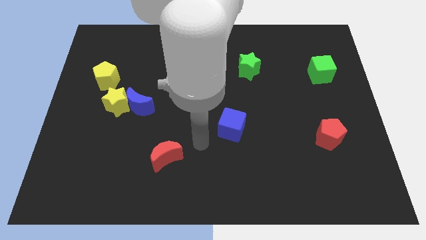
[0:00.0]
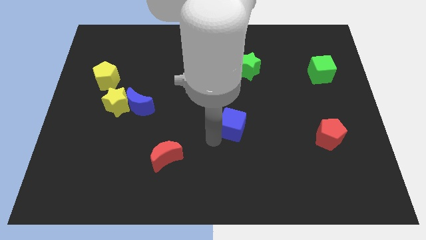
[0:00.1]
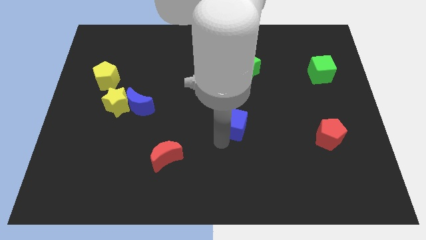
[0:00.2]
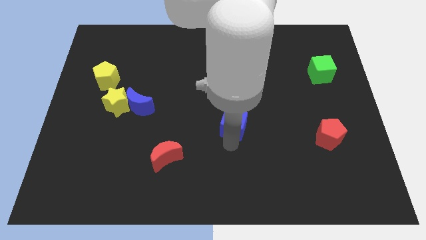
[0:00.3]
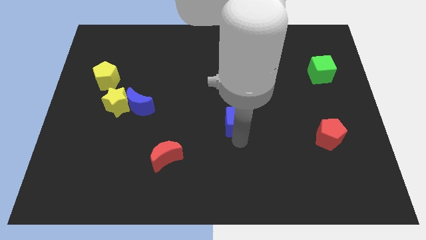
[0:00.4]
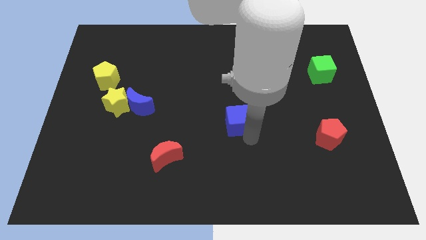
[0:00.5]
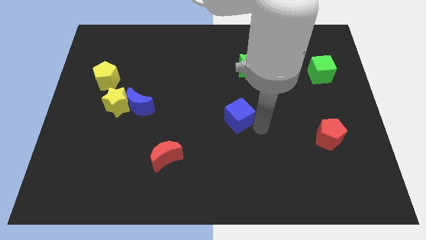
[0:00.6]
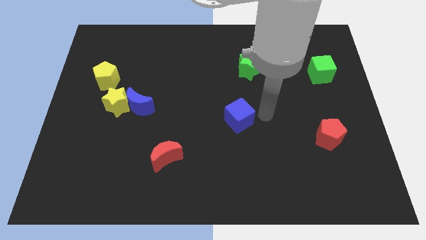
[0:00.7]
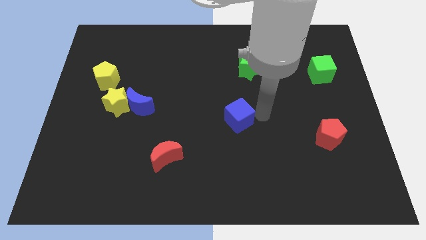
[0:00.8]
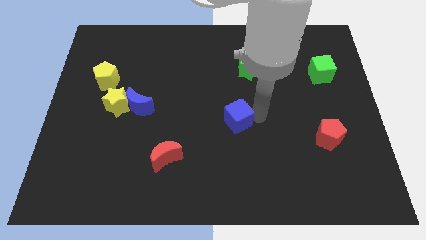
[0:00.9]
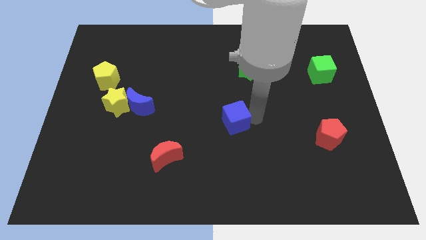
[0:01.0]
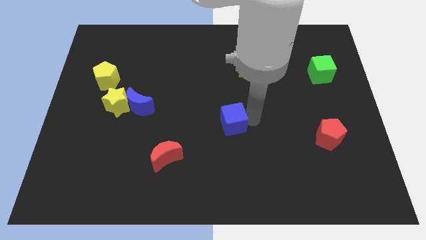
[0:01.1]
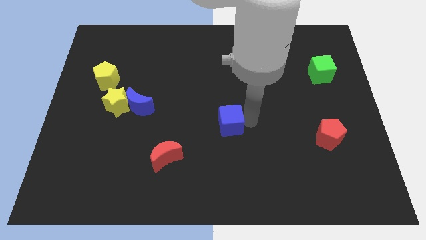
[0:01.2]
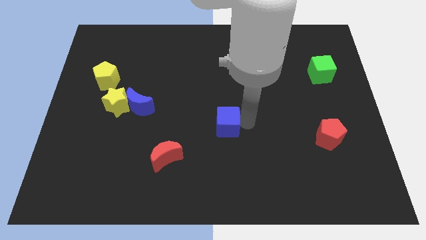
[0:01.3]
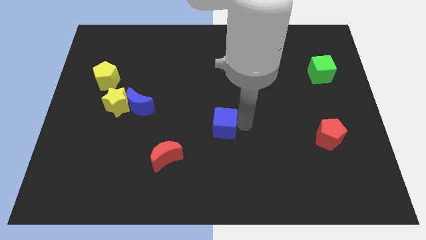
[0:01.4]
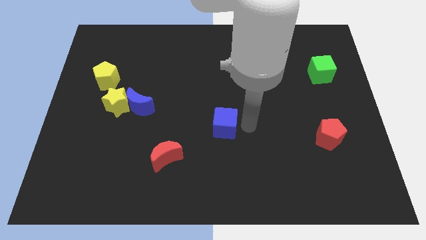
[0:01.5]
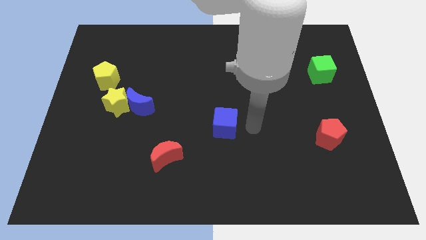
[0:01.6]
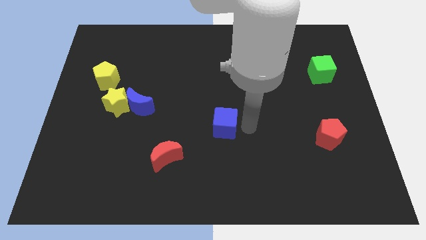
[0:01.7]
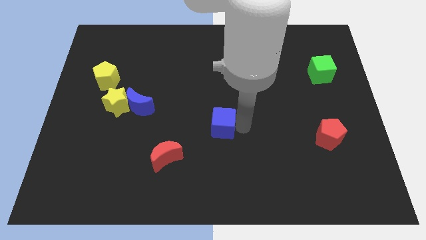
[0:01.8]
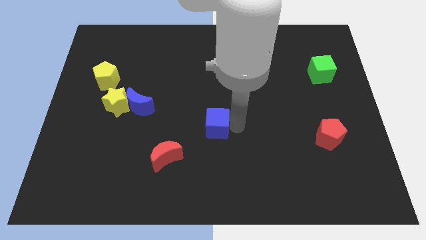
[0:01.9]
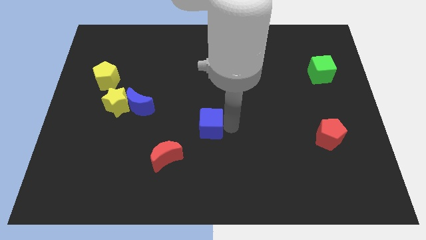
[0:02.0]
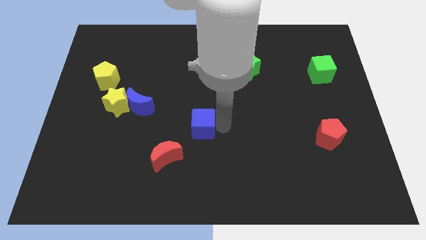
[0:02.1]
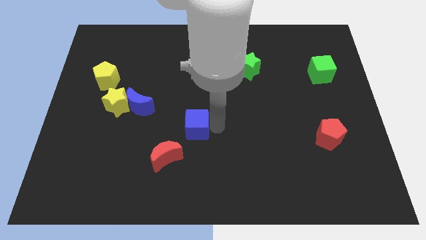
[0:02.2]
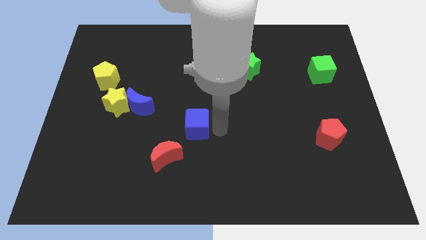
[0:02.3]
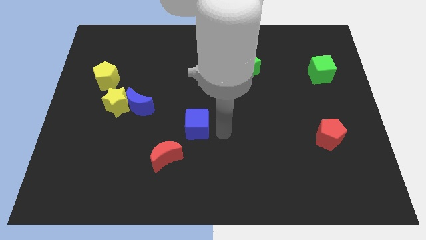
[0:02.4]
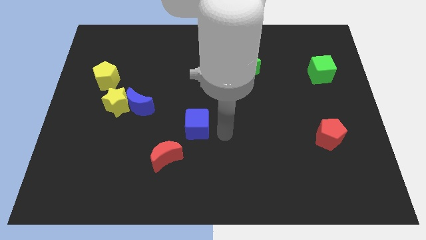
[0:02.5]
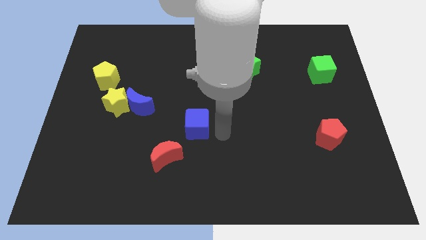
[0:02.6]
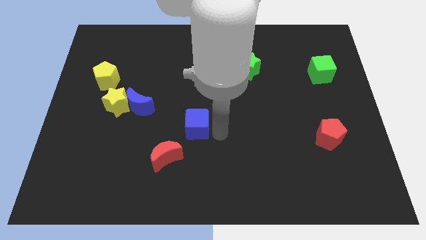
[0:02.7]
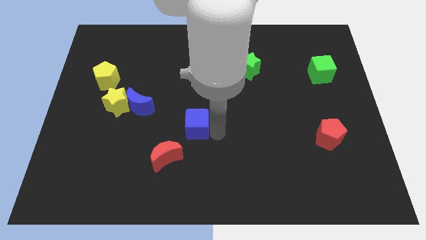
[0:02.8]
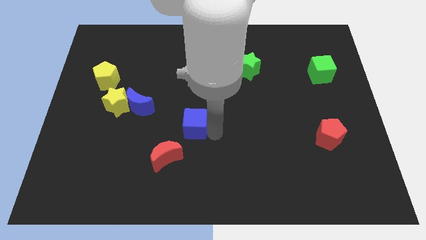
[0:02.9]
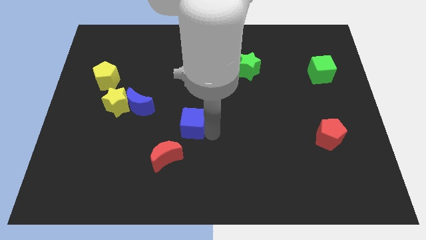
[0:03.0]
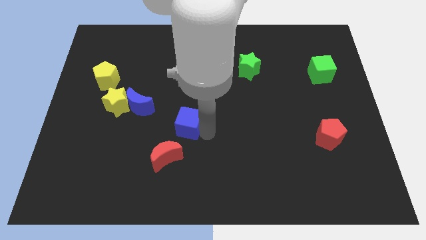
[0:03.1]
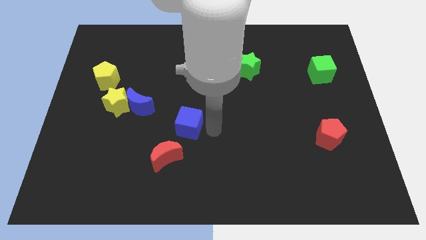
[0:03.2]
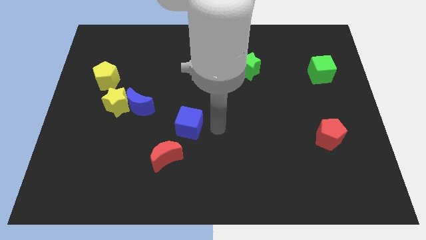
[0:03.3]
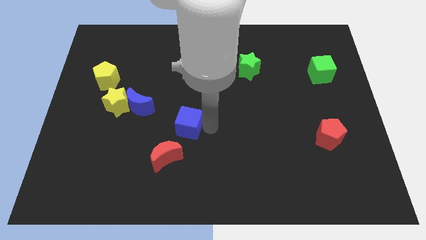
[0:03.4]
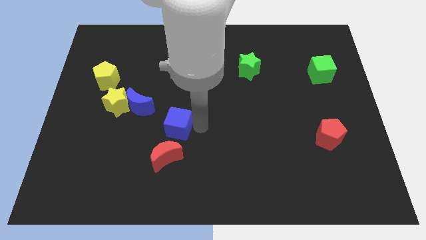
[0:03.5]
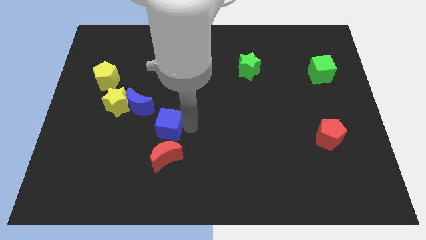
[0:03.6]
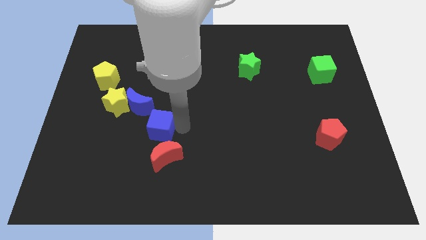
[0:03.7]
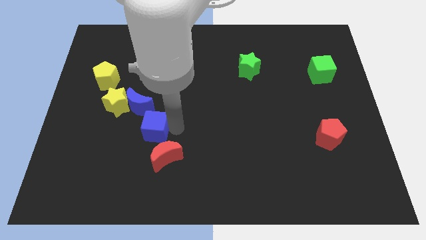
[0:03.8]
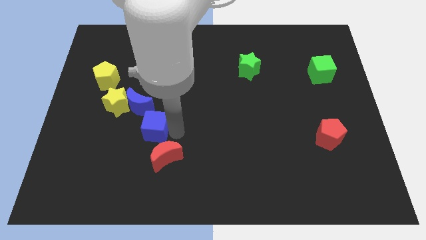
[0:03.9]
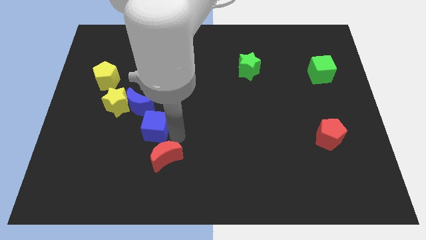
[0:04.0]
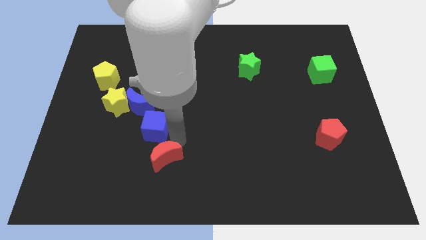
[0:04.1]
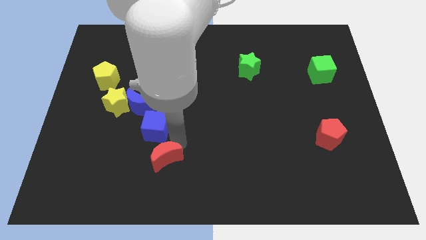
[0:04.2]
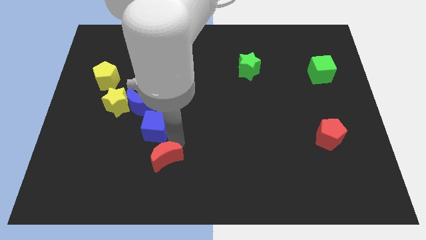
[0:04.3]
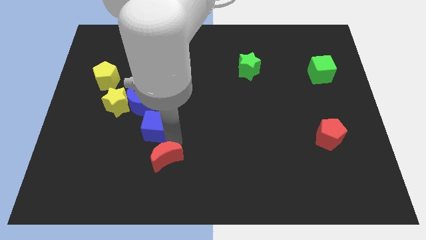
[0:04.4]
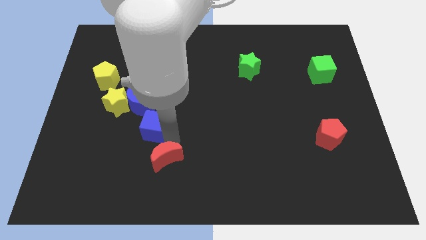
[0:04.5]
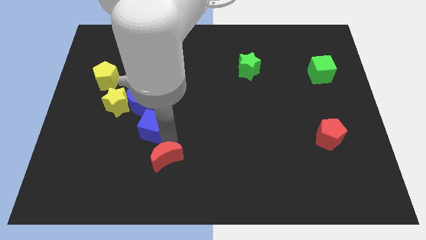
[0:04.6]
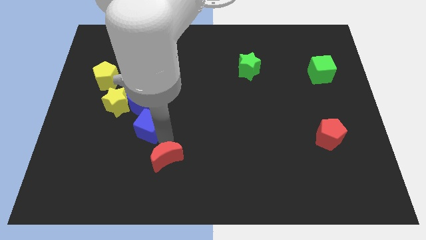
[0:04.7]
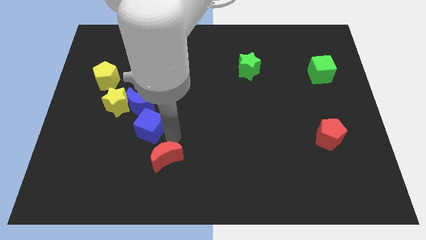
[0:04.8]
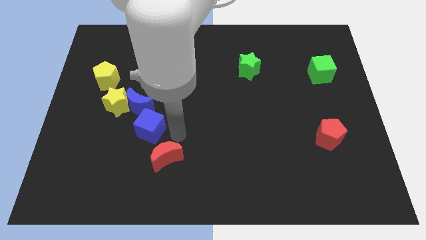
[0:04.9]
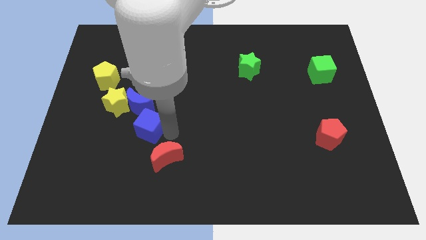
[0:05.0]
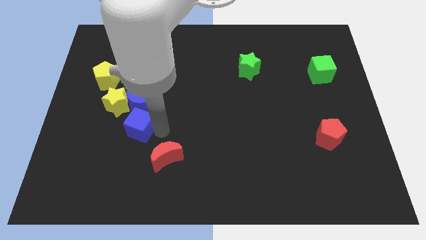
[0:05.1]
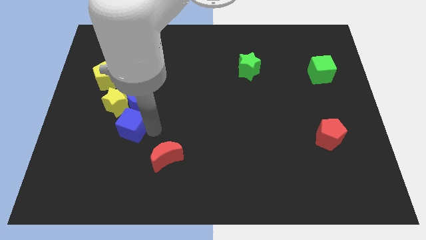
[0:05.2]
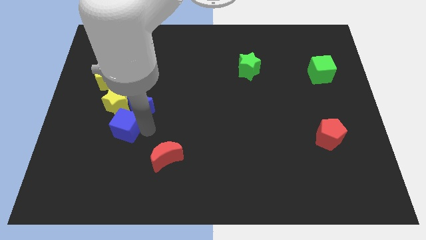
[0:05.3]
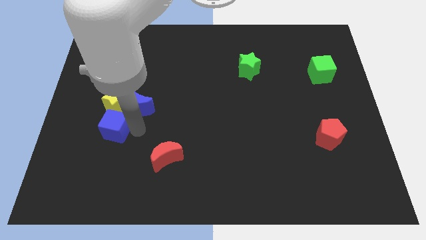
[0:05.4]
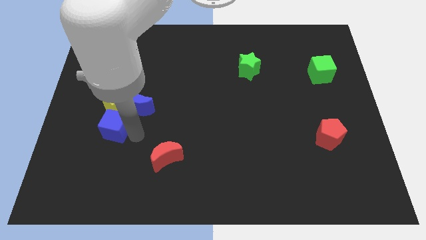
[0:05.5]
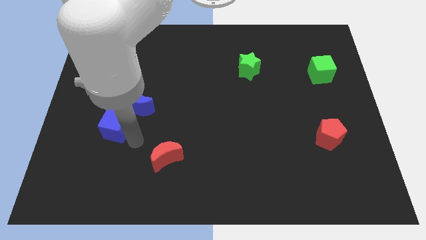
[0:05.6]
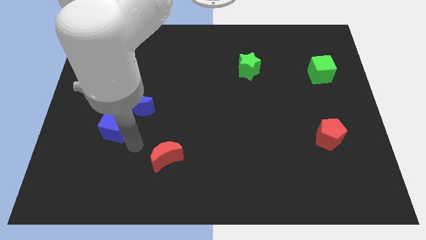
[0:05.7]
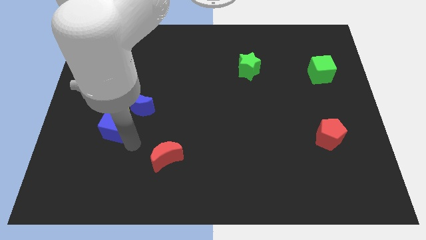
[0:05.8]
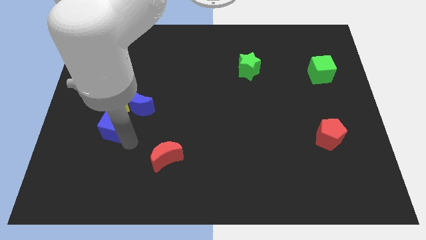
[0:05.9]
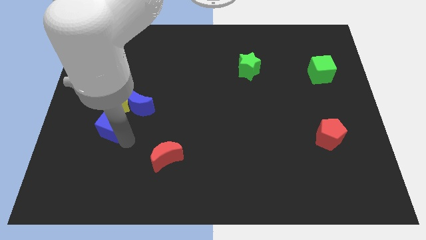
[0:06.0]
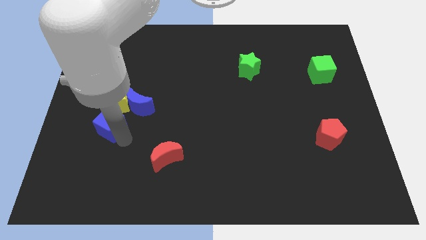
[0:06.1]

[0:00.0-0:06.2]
slide the blue cube to the bottom side of the yellow pentagon

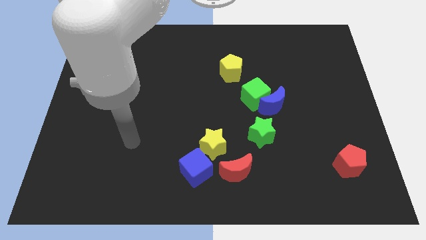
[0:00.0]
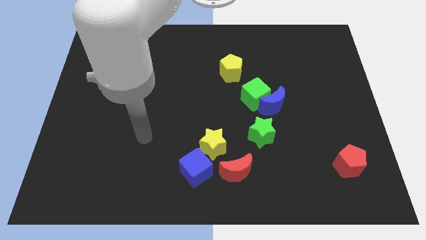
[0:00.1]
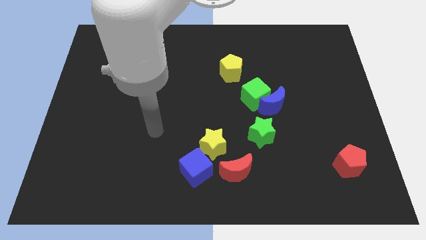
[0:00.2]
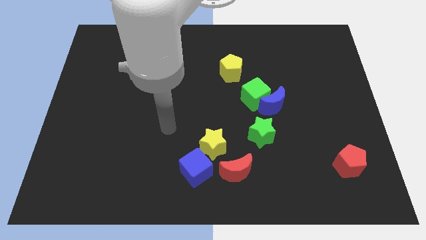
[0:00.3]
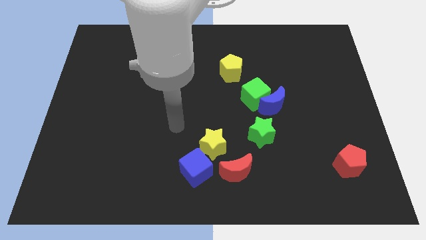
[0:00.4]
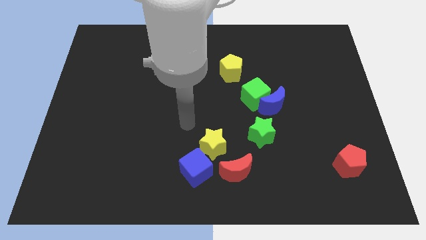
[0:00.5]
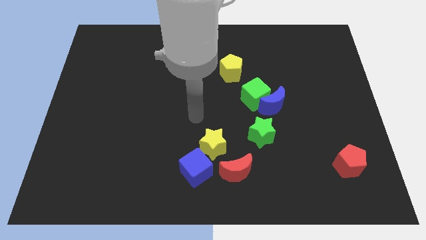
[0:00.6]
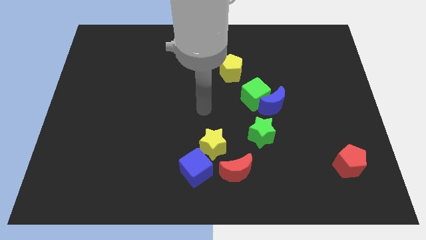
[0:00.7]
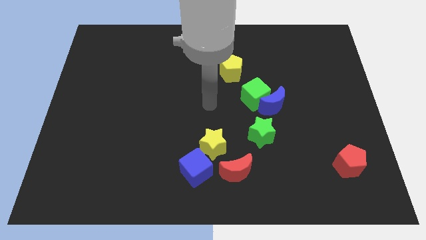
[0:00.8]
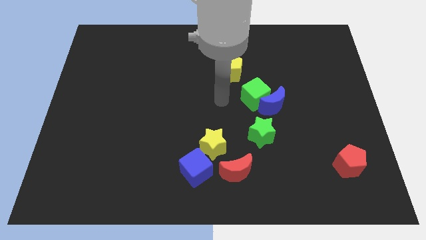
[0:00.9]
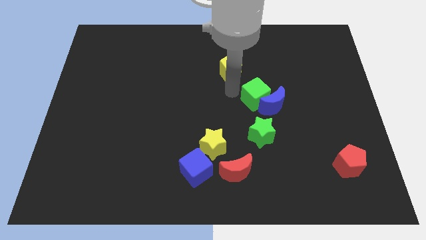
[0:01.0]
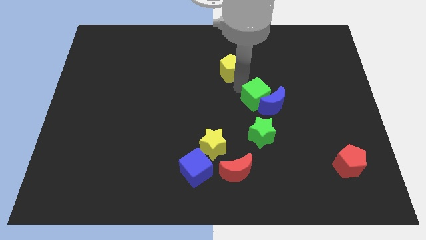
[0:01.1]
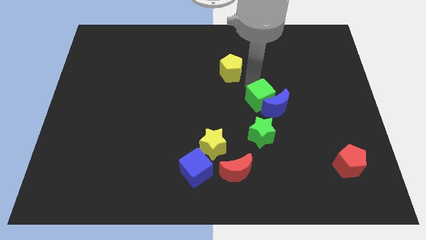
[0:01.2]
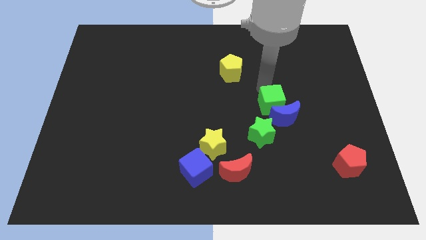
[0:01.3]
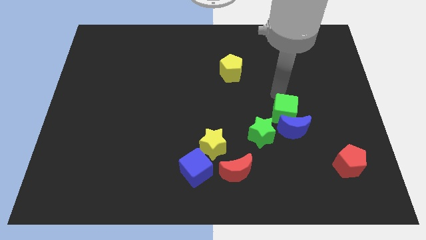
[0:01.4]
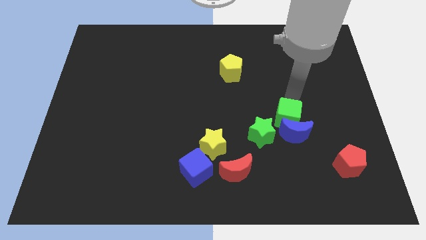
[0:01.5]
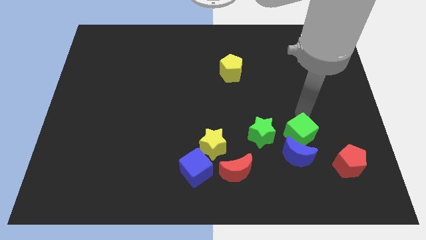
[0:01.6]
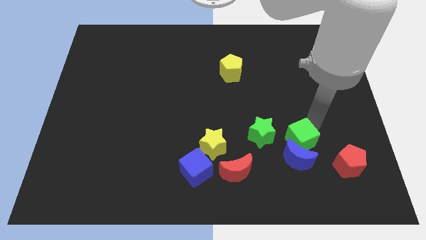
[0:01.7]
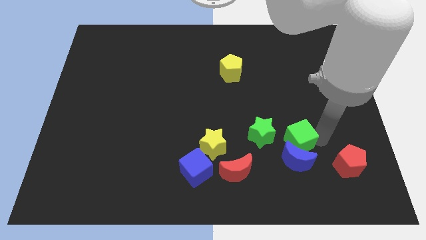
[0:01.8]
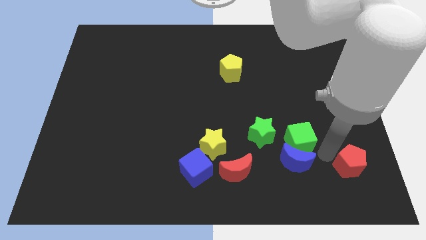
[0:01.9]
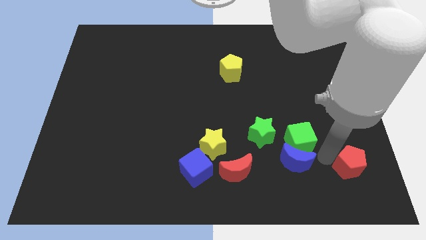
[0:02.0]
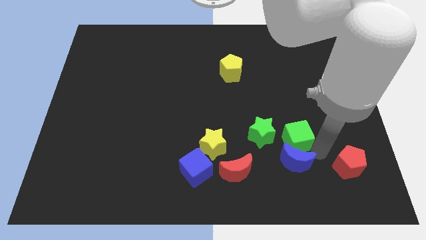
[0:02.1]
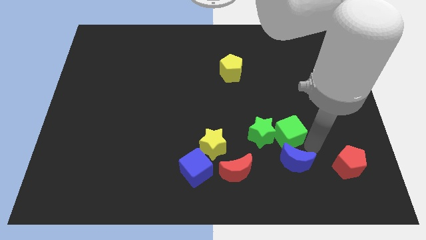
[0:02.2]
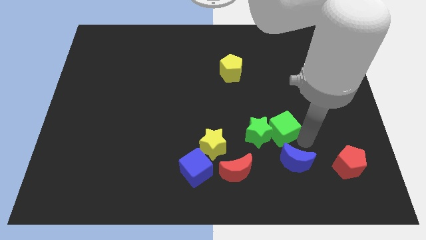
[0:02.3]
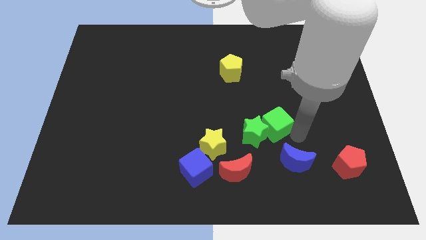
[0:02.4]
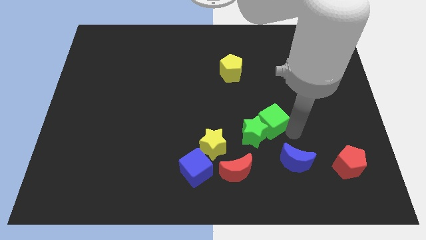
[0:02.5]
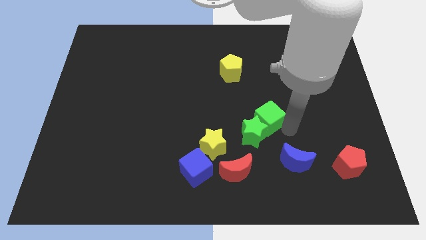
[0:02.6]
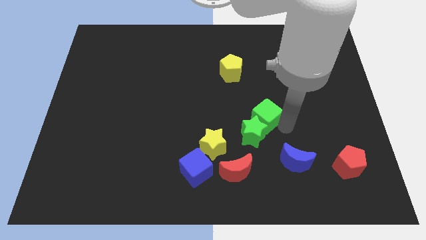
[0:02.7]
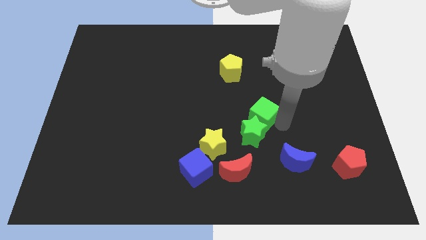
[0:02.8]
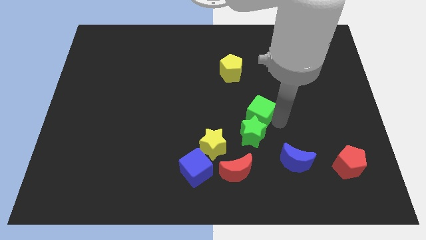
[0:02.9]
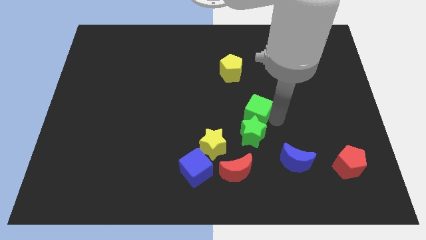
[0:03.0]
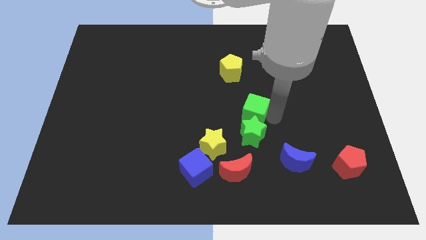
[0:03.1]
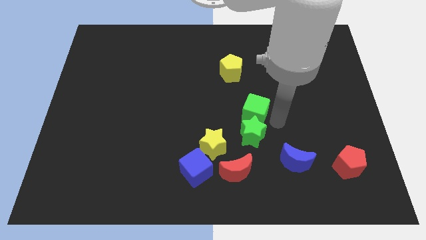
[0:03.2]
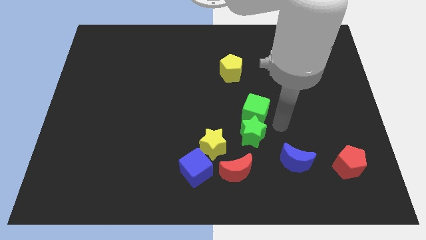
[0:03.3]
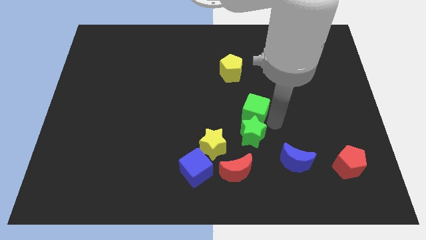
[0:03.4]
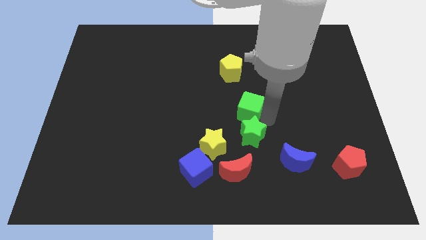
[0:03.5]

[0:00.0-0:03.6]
move the green cube to the bottom side of the yellow pentagon
